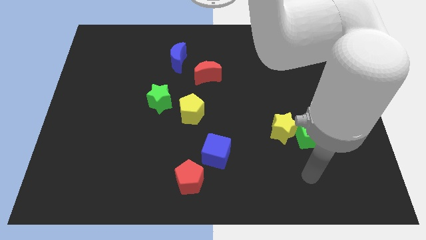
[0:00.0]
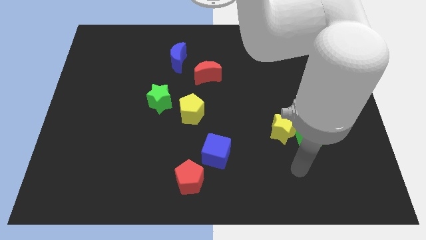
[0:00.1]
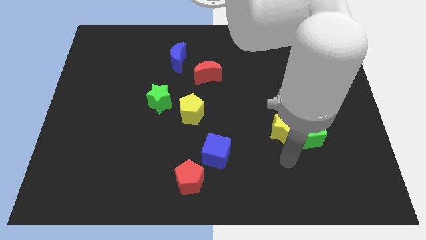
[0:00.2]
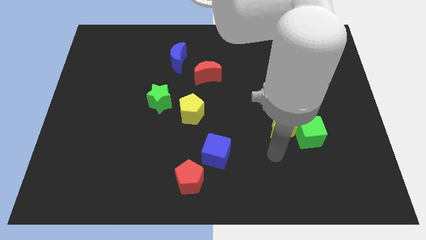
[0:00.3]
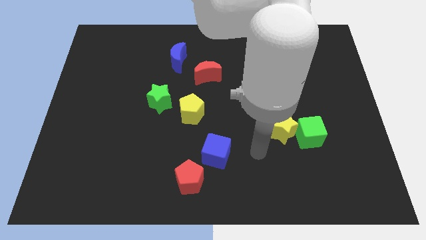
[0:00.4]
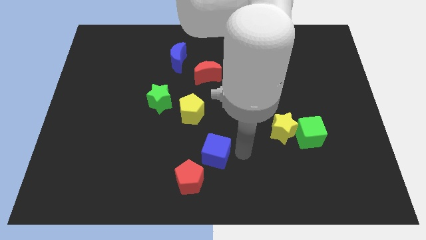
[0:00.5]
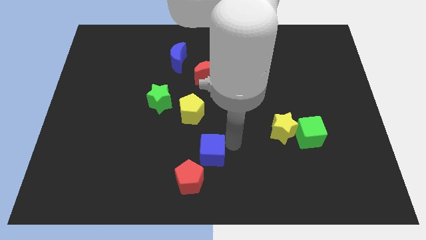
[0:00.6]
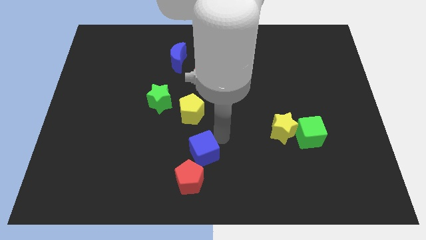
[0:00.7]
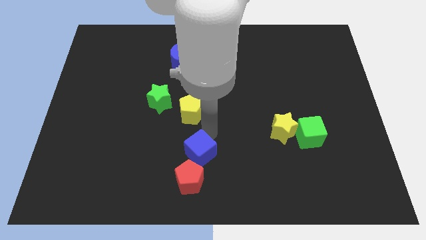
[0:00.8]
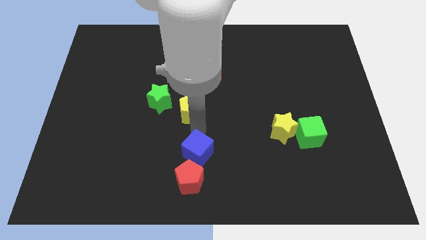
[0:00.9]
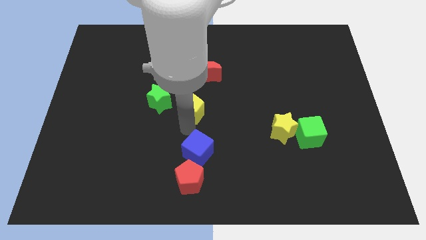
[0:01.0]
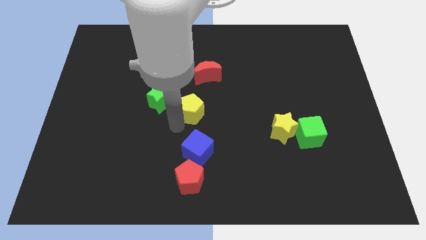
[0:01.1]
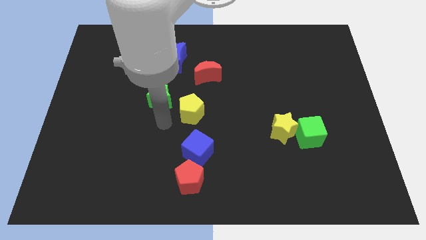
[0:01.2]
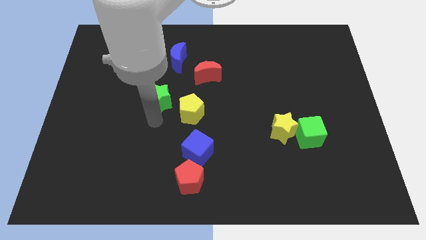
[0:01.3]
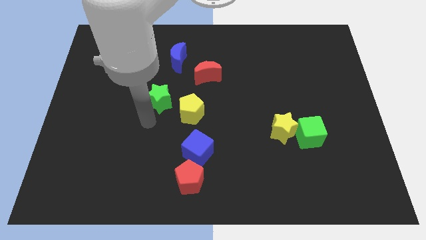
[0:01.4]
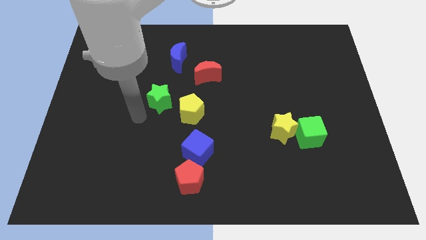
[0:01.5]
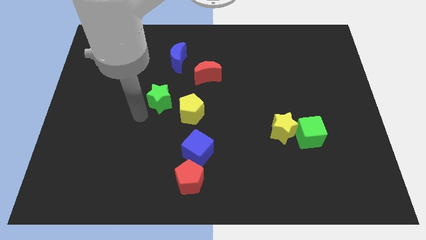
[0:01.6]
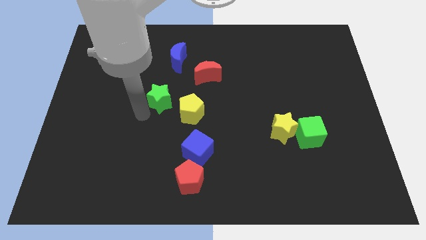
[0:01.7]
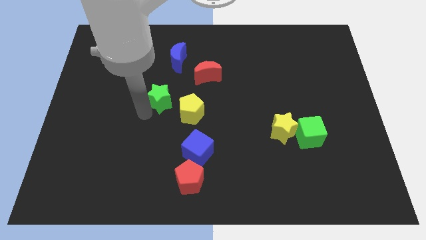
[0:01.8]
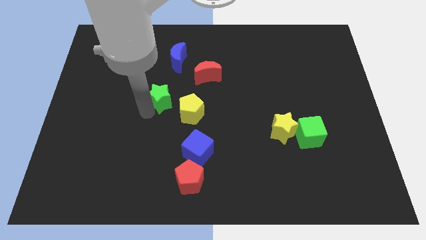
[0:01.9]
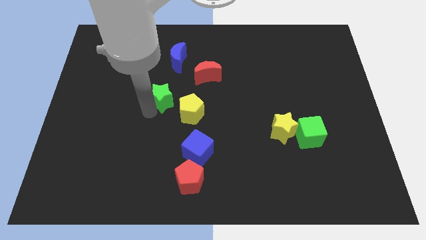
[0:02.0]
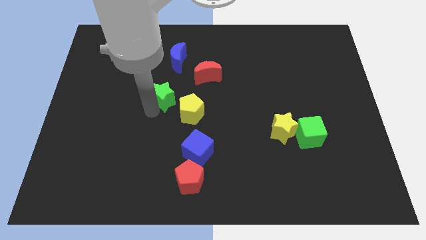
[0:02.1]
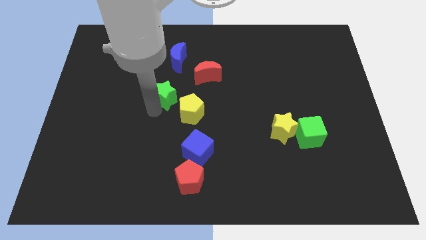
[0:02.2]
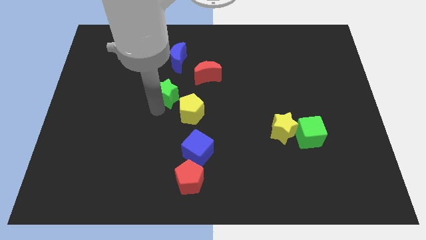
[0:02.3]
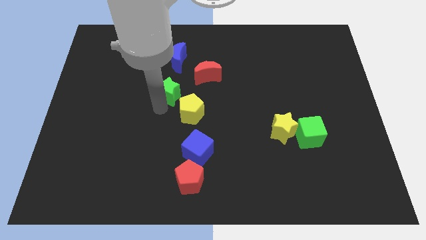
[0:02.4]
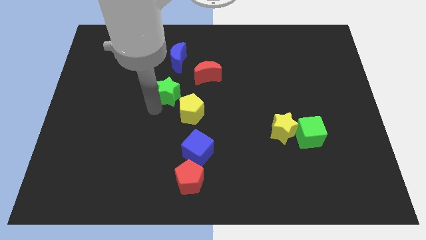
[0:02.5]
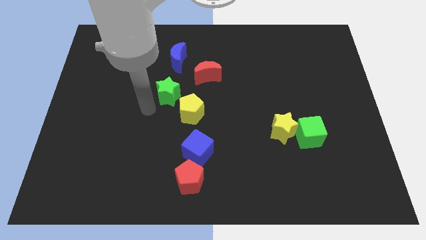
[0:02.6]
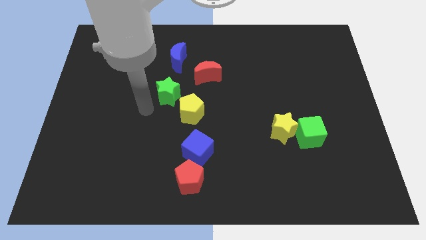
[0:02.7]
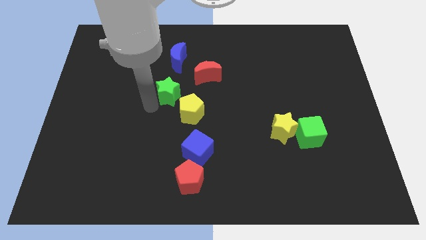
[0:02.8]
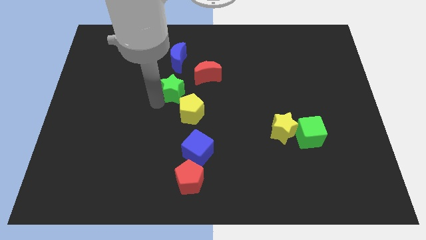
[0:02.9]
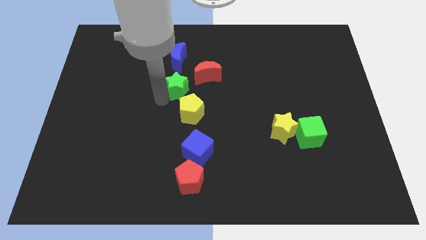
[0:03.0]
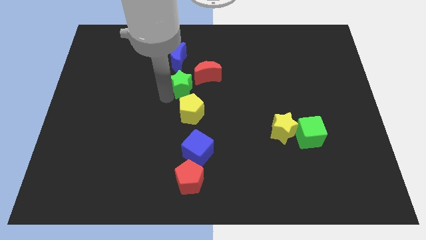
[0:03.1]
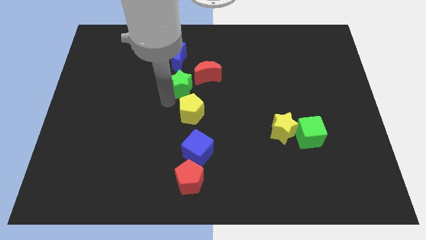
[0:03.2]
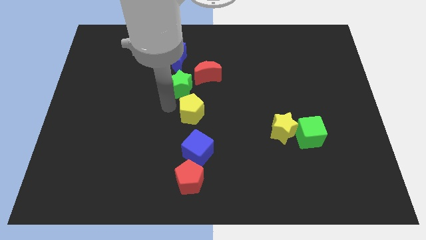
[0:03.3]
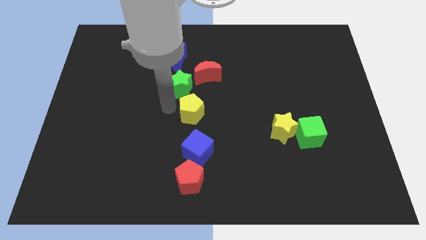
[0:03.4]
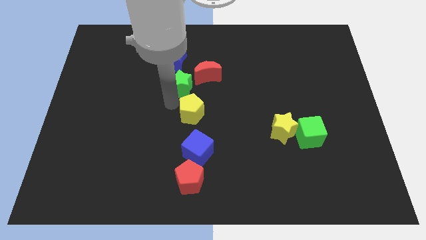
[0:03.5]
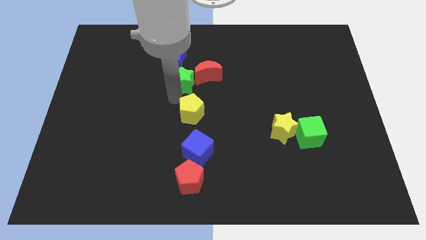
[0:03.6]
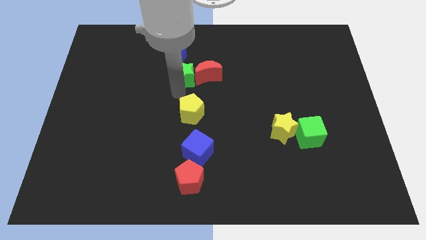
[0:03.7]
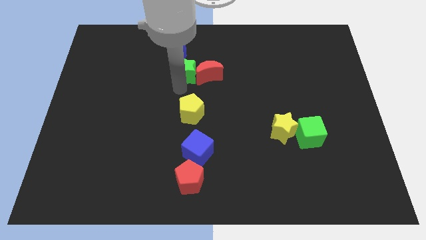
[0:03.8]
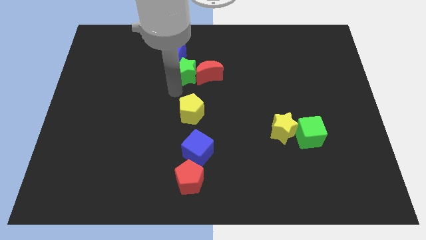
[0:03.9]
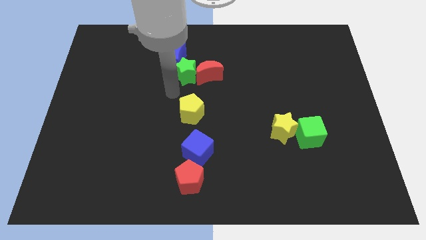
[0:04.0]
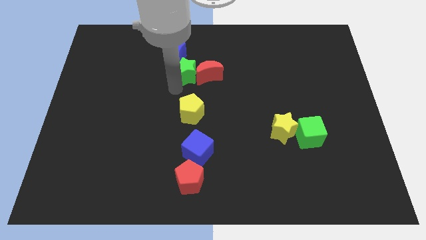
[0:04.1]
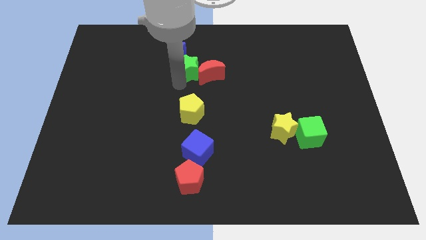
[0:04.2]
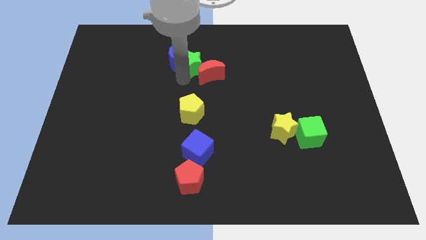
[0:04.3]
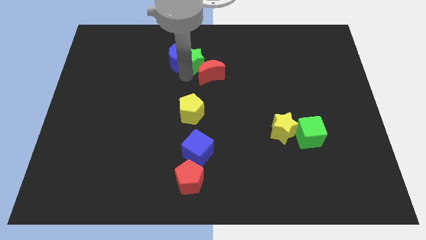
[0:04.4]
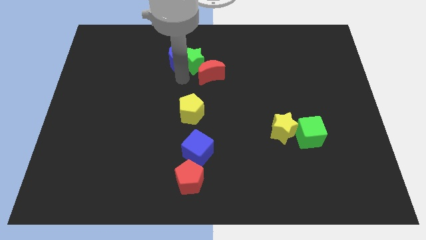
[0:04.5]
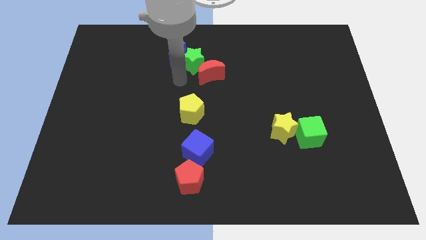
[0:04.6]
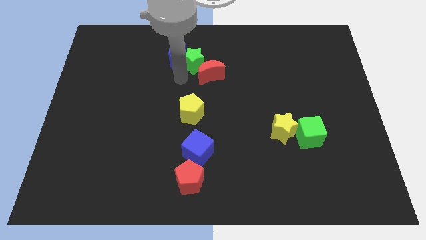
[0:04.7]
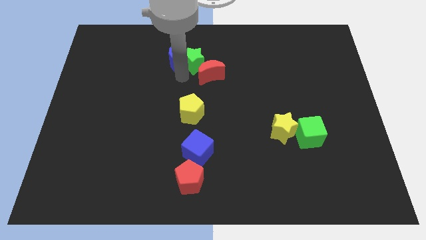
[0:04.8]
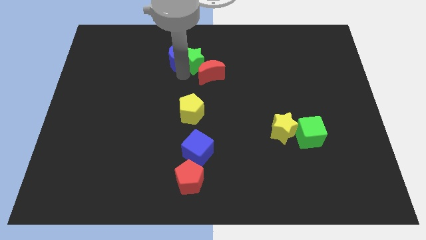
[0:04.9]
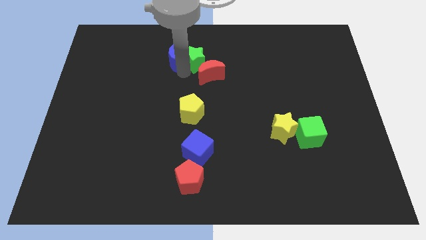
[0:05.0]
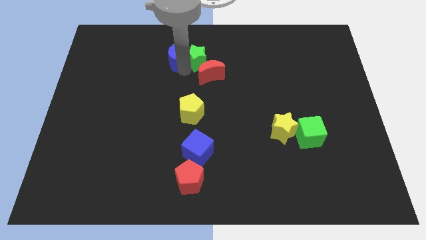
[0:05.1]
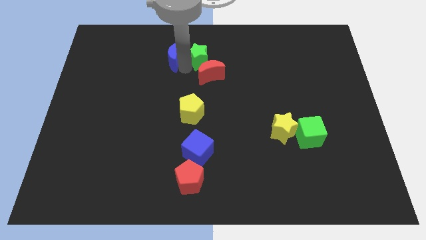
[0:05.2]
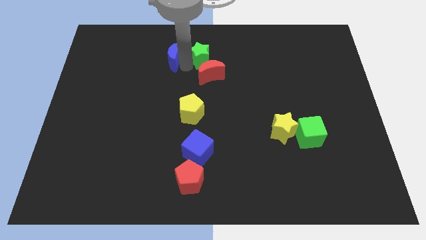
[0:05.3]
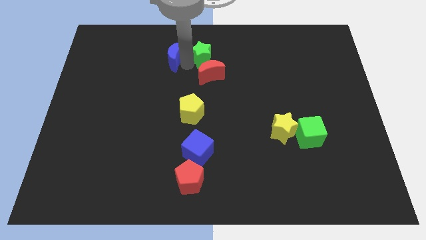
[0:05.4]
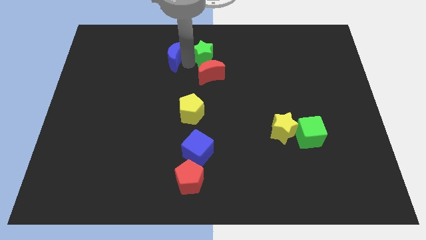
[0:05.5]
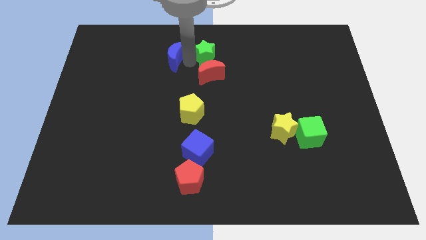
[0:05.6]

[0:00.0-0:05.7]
slide the green star to the top
